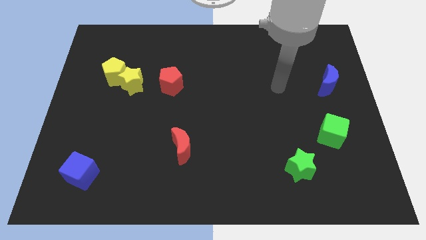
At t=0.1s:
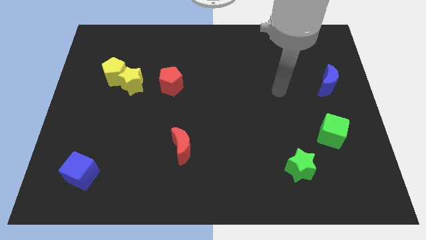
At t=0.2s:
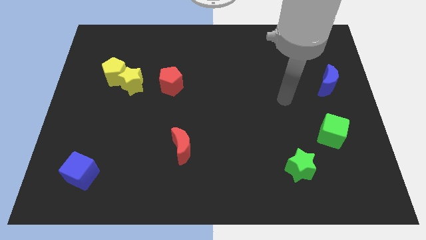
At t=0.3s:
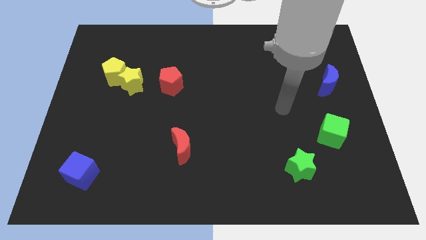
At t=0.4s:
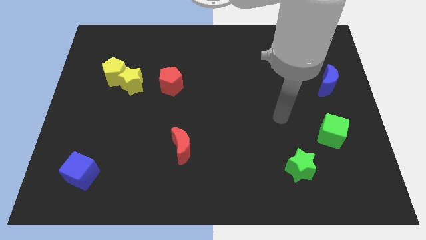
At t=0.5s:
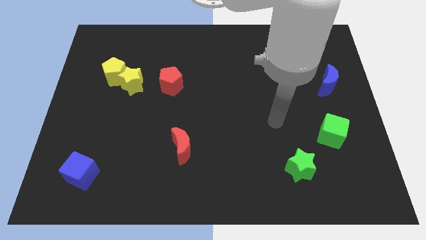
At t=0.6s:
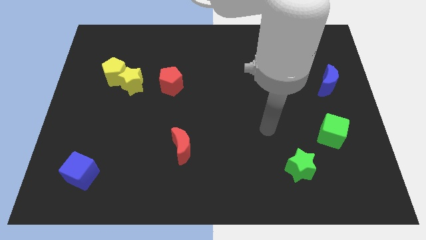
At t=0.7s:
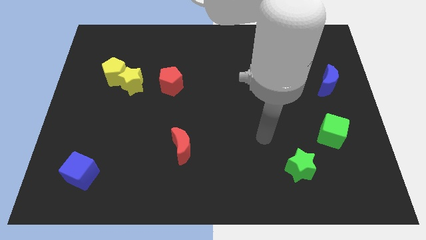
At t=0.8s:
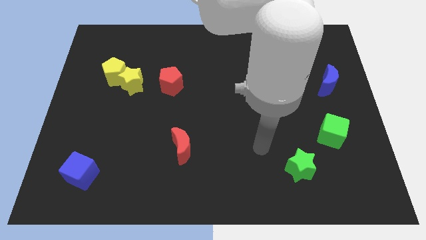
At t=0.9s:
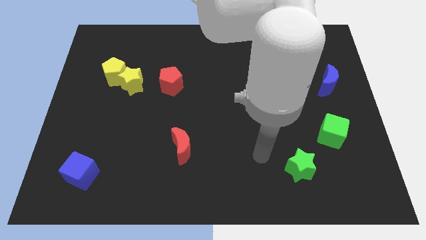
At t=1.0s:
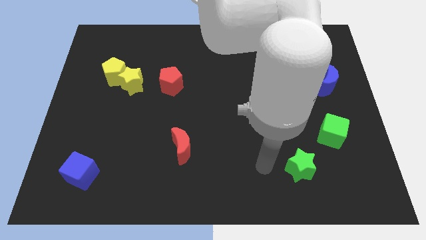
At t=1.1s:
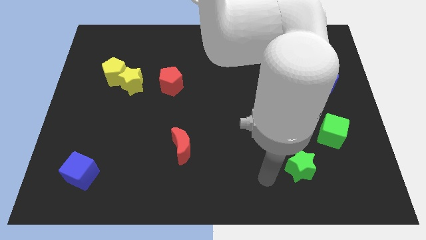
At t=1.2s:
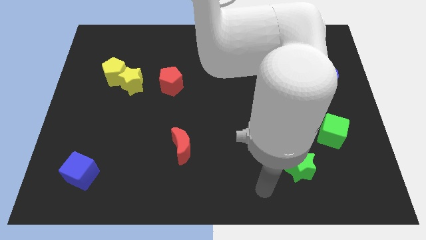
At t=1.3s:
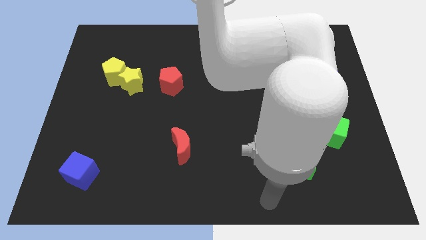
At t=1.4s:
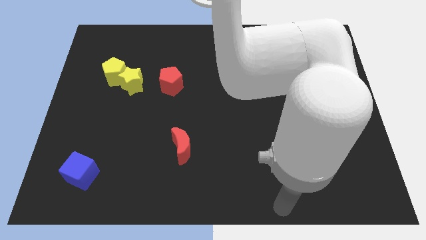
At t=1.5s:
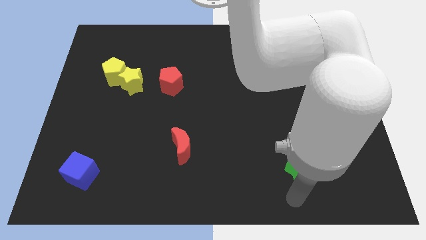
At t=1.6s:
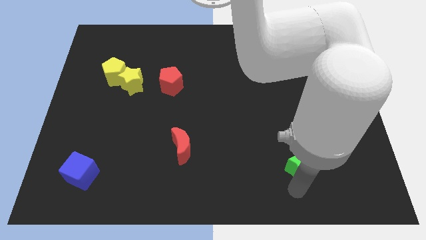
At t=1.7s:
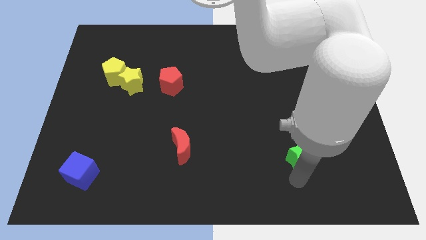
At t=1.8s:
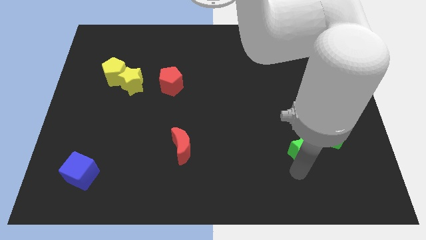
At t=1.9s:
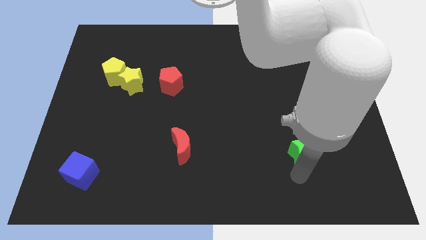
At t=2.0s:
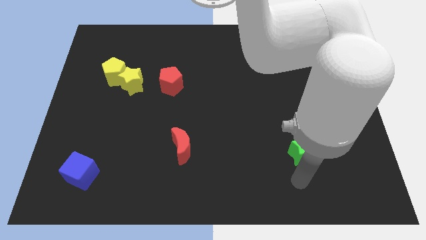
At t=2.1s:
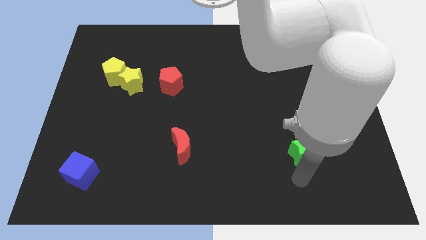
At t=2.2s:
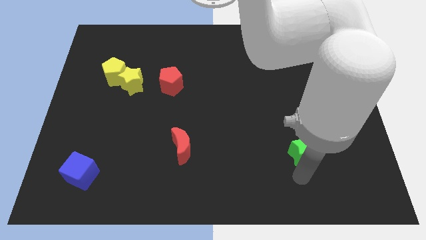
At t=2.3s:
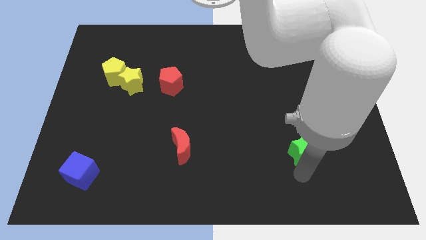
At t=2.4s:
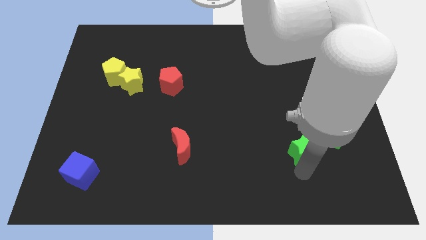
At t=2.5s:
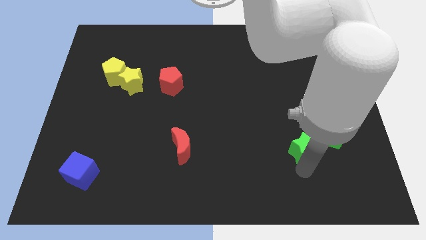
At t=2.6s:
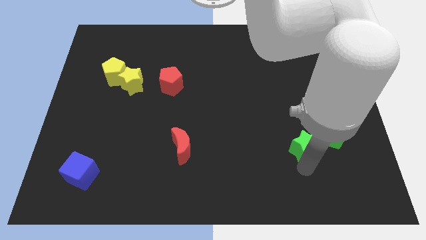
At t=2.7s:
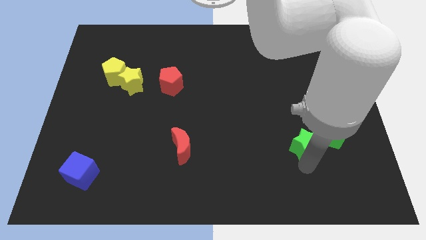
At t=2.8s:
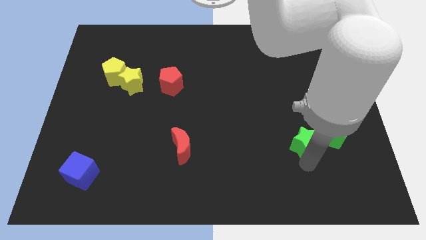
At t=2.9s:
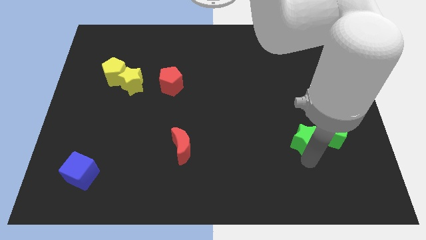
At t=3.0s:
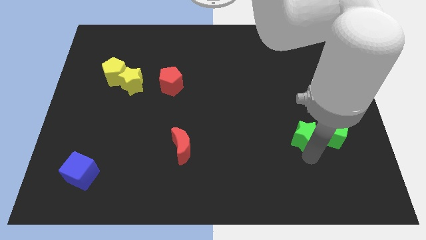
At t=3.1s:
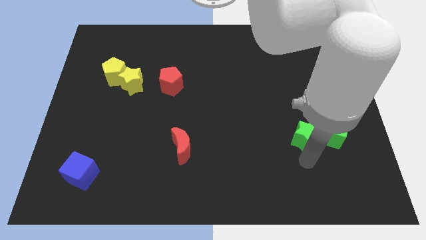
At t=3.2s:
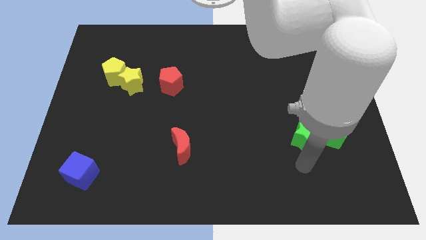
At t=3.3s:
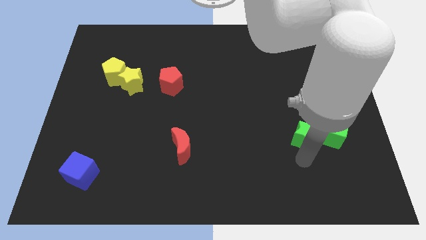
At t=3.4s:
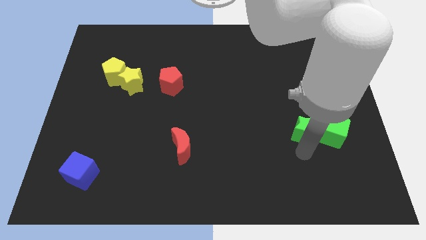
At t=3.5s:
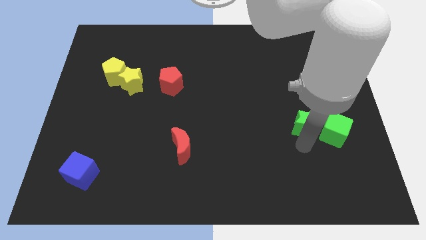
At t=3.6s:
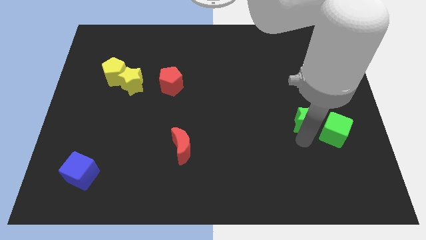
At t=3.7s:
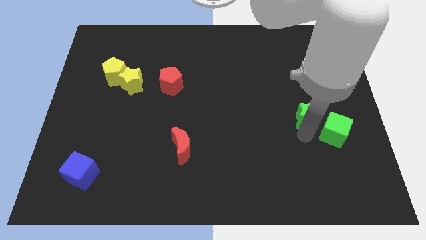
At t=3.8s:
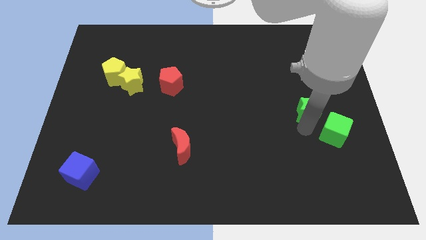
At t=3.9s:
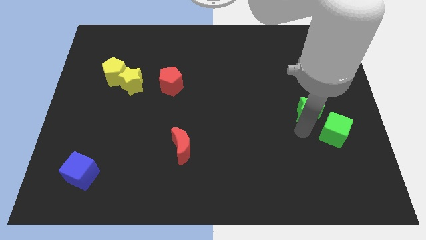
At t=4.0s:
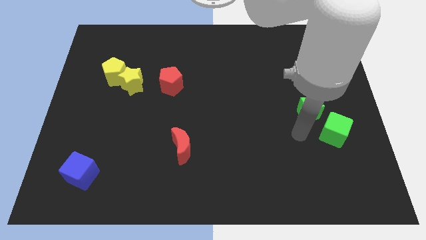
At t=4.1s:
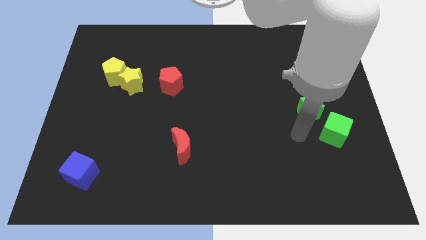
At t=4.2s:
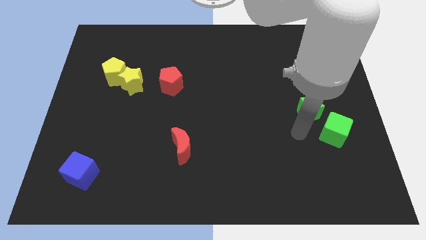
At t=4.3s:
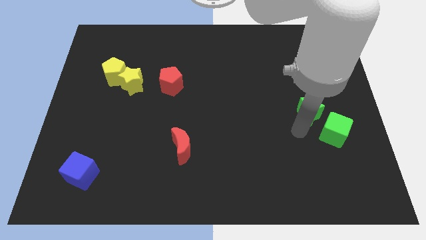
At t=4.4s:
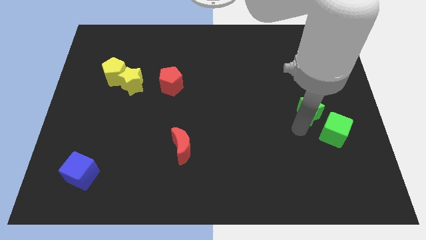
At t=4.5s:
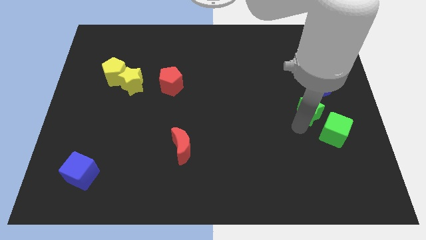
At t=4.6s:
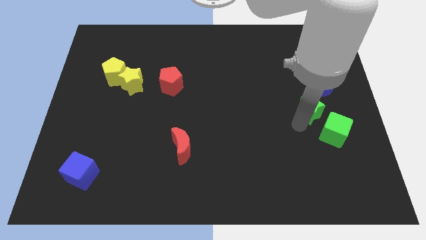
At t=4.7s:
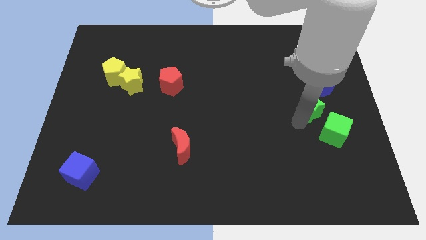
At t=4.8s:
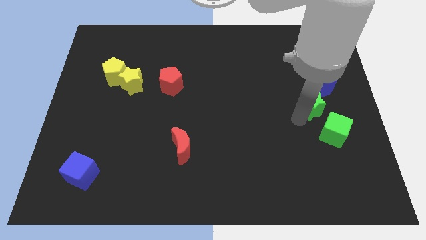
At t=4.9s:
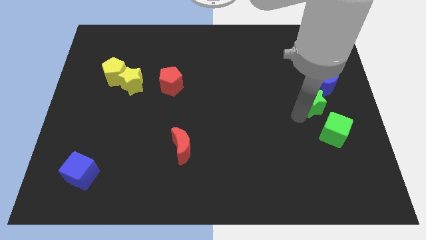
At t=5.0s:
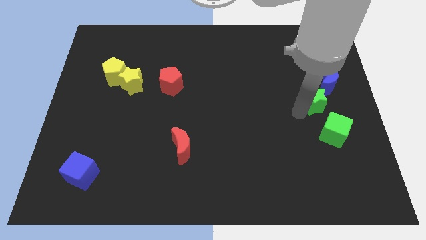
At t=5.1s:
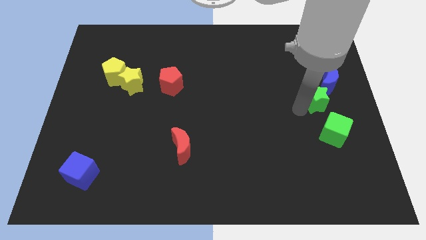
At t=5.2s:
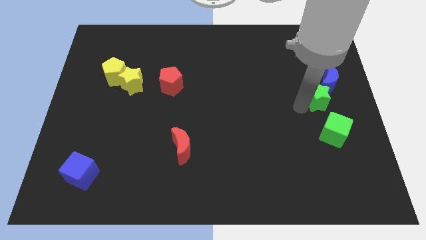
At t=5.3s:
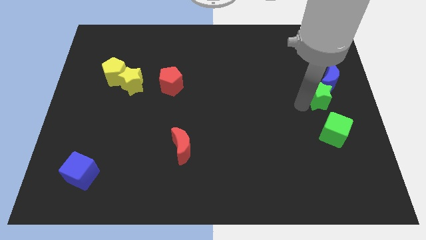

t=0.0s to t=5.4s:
move the green star to the blue moon

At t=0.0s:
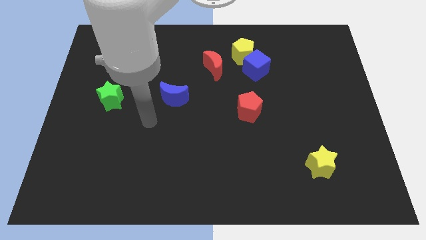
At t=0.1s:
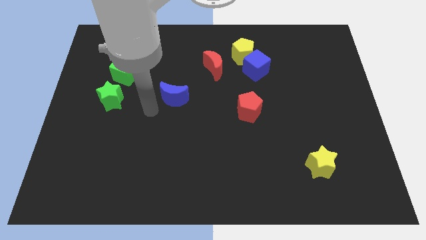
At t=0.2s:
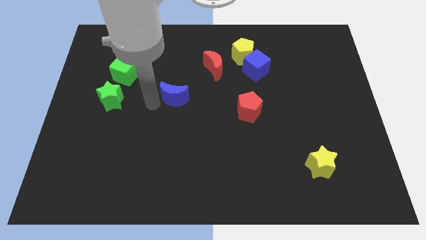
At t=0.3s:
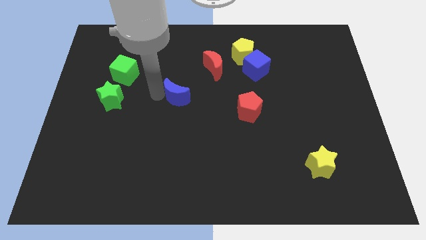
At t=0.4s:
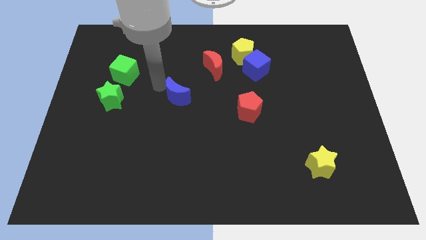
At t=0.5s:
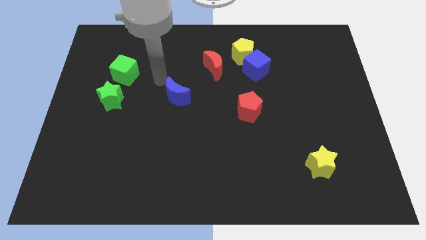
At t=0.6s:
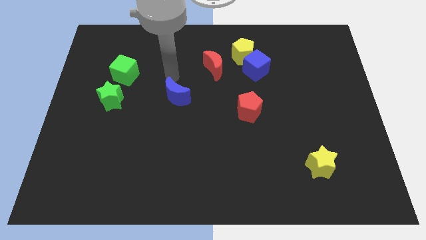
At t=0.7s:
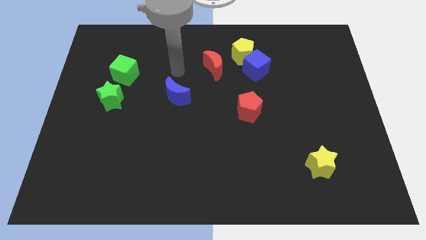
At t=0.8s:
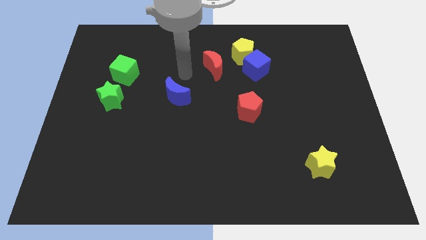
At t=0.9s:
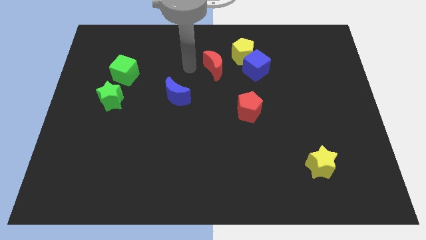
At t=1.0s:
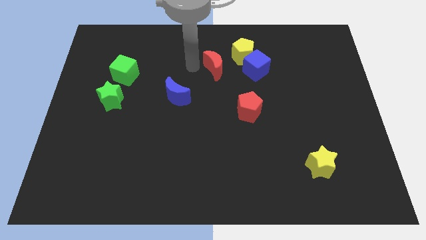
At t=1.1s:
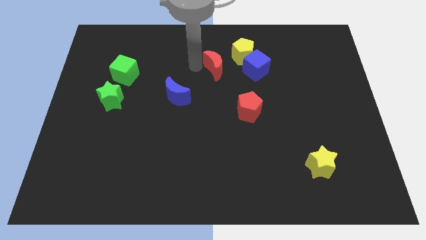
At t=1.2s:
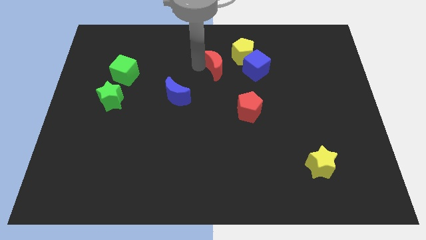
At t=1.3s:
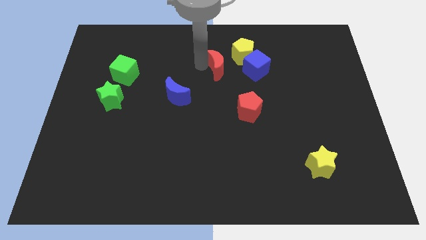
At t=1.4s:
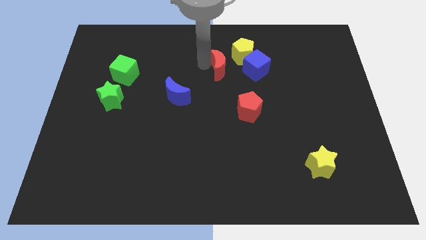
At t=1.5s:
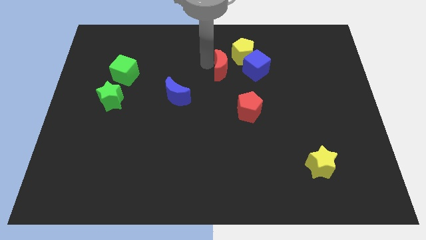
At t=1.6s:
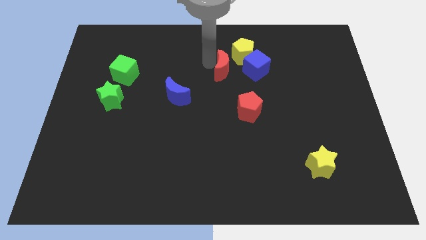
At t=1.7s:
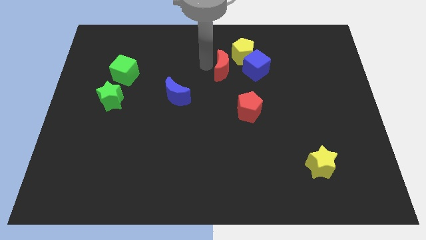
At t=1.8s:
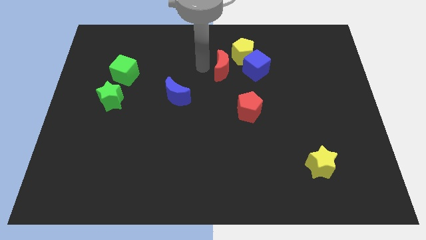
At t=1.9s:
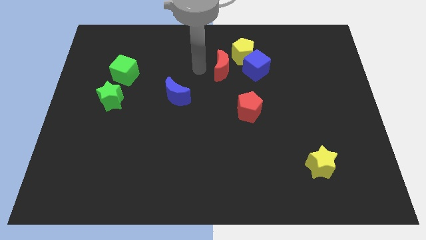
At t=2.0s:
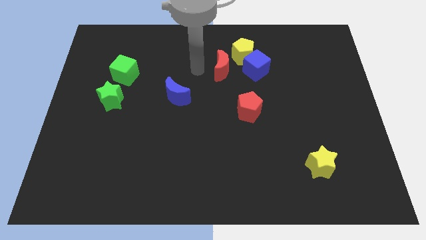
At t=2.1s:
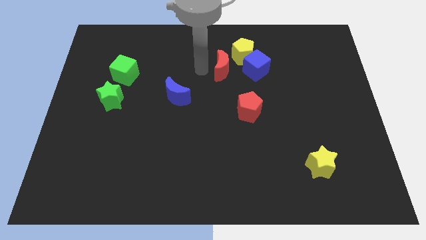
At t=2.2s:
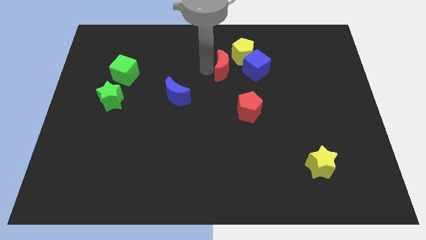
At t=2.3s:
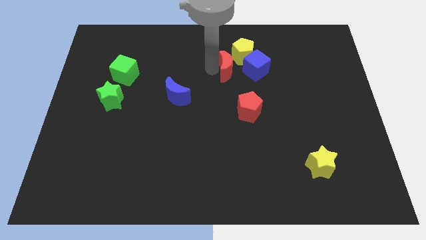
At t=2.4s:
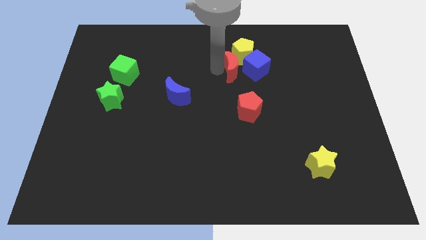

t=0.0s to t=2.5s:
move the red moon next to the blue cube

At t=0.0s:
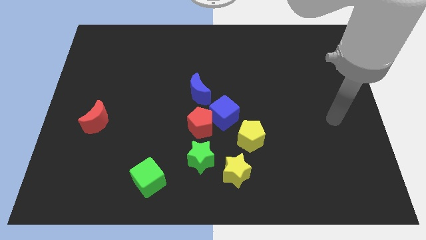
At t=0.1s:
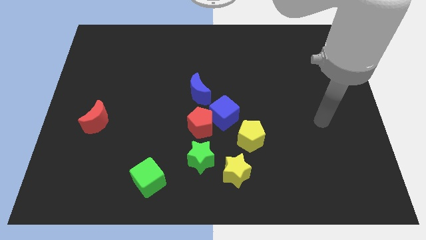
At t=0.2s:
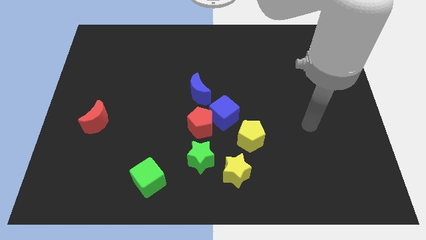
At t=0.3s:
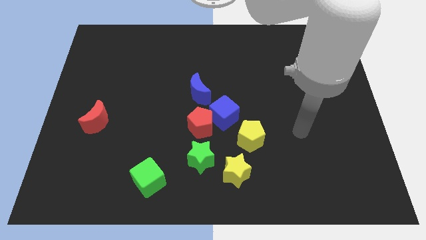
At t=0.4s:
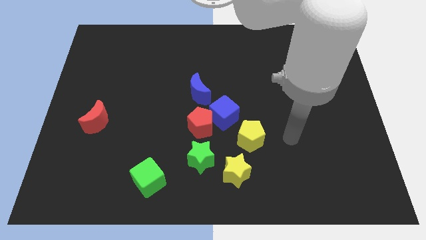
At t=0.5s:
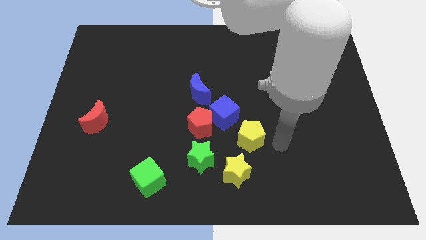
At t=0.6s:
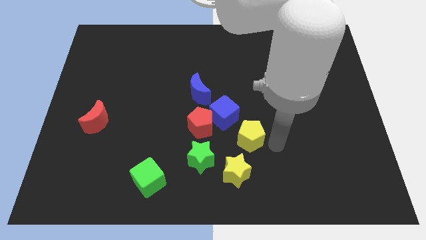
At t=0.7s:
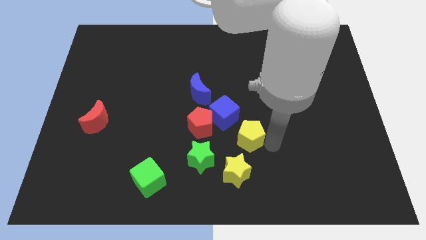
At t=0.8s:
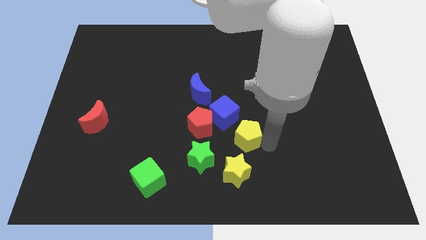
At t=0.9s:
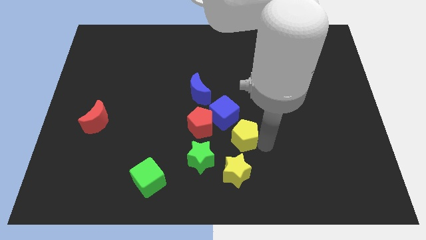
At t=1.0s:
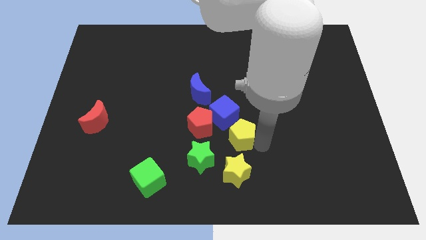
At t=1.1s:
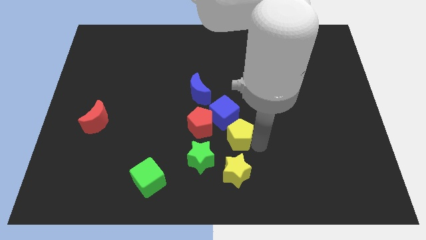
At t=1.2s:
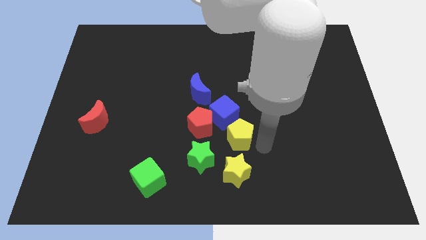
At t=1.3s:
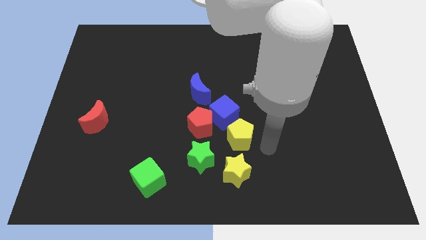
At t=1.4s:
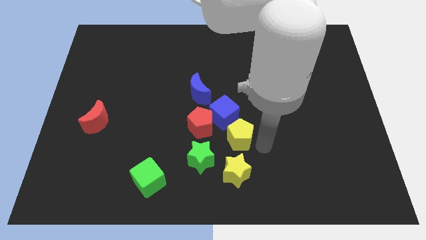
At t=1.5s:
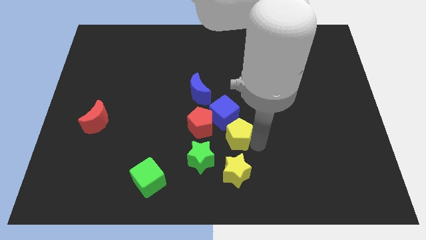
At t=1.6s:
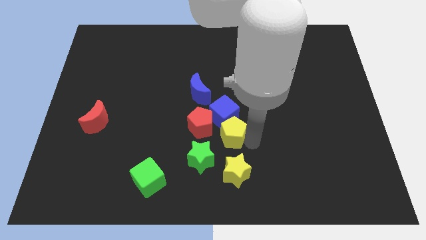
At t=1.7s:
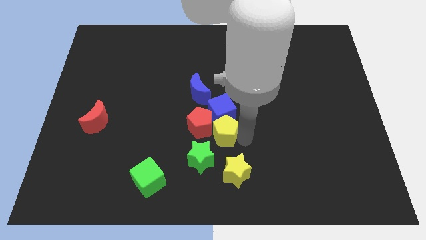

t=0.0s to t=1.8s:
slide the yellow pentagon to the red pentagon
